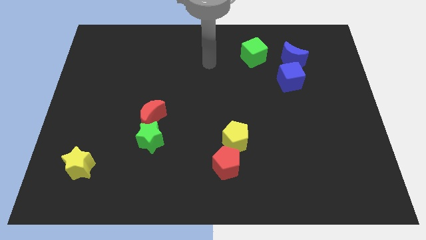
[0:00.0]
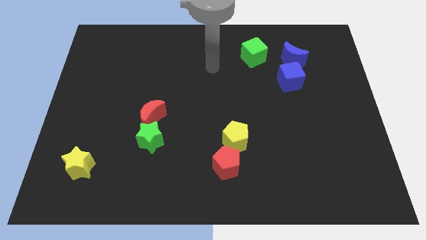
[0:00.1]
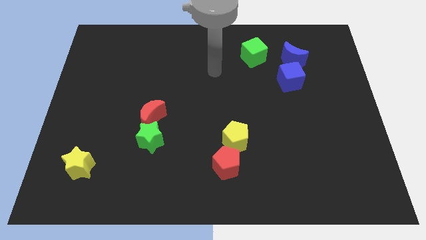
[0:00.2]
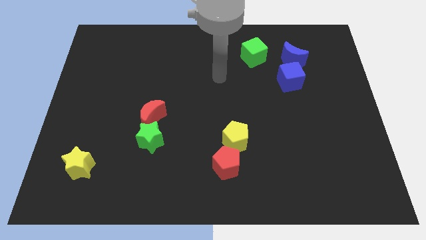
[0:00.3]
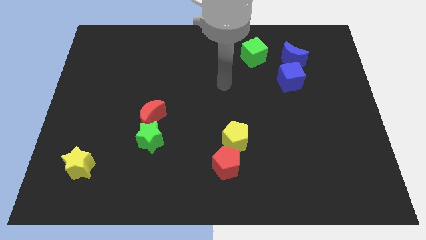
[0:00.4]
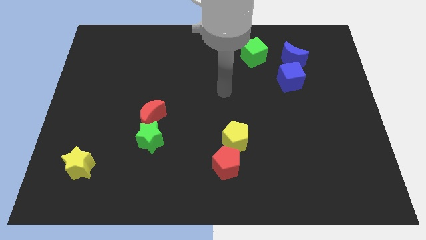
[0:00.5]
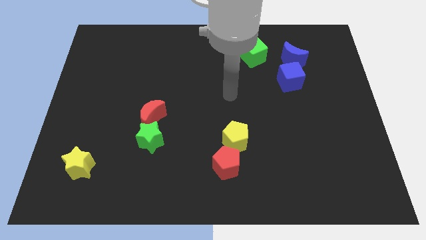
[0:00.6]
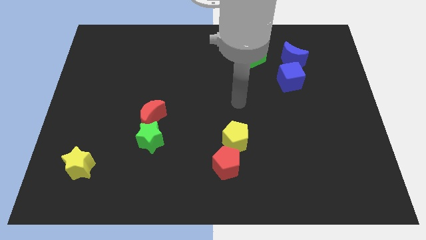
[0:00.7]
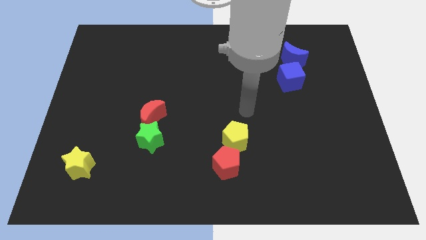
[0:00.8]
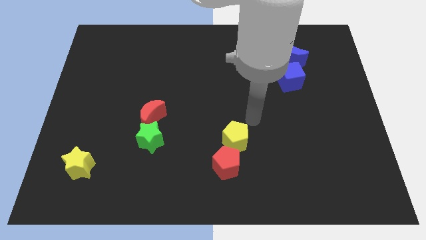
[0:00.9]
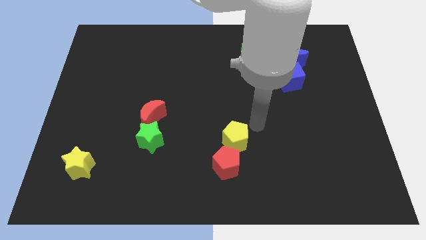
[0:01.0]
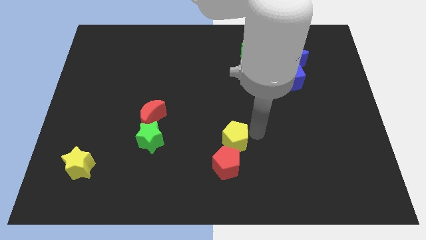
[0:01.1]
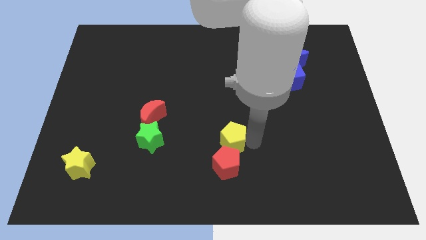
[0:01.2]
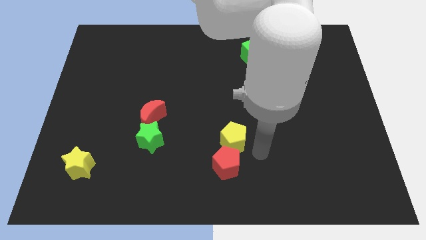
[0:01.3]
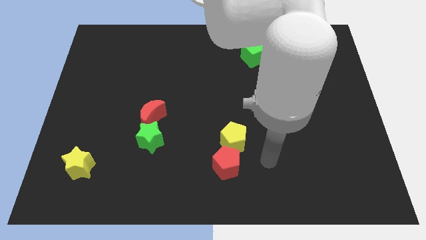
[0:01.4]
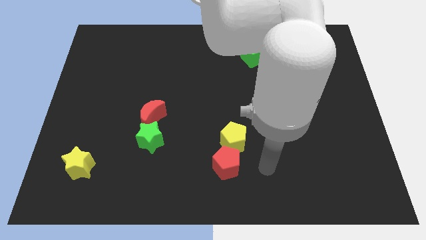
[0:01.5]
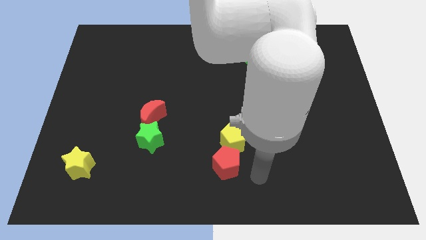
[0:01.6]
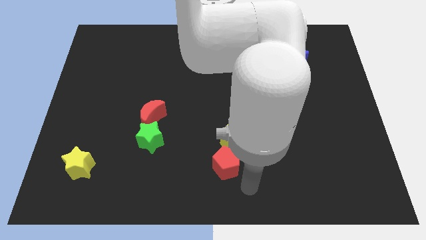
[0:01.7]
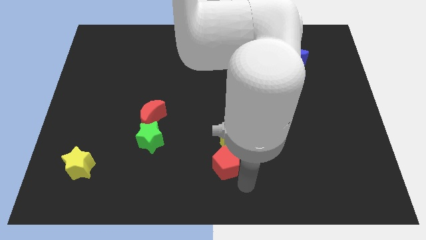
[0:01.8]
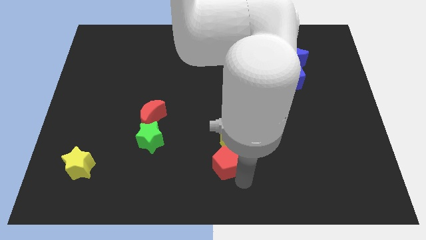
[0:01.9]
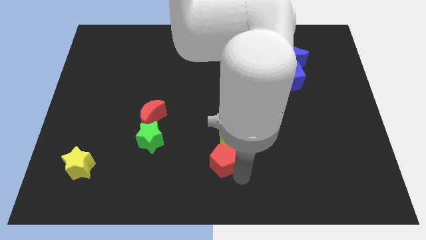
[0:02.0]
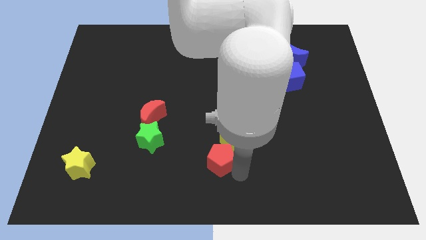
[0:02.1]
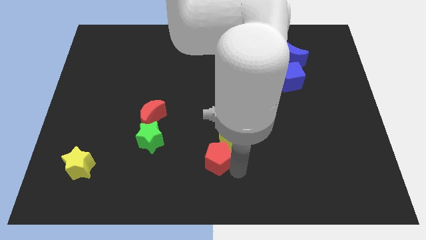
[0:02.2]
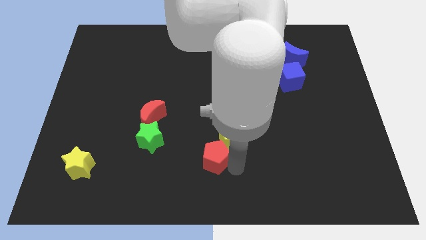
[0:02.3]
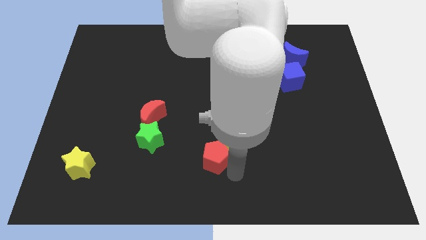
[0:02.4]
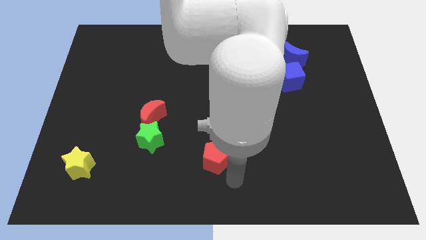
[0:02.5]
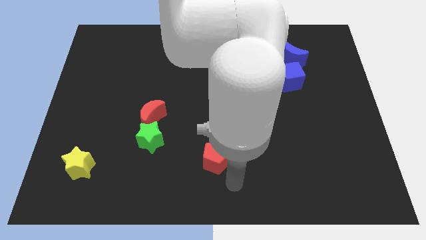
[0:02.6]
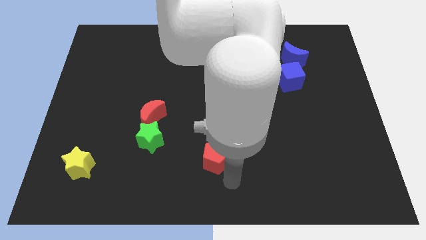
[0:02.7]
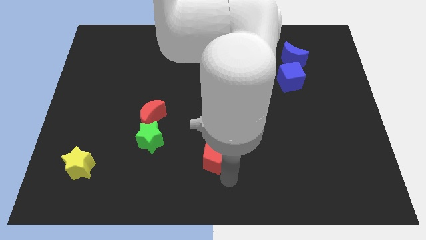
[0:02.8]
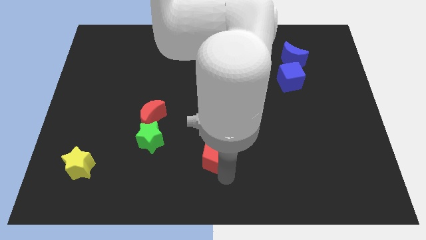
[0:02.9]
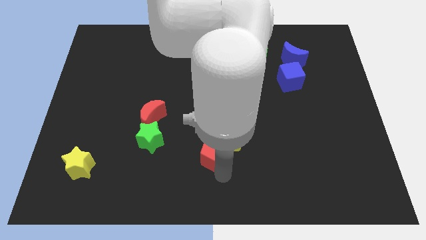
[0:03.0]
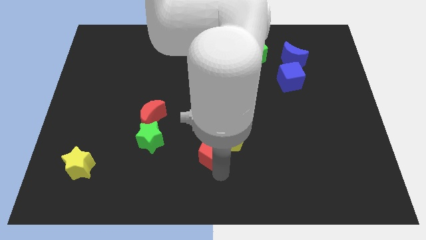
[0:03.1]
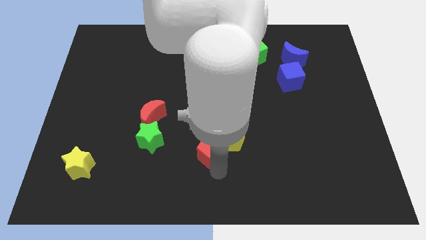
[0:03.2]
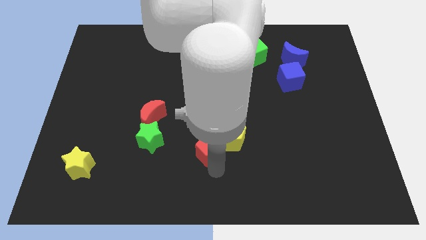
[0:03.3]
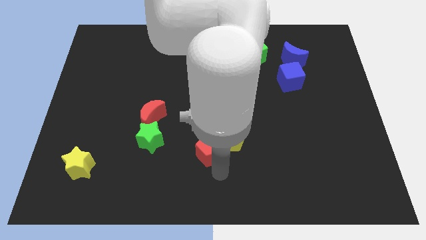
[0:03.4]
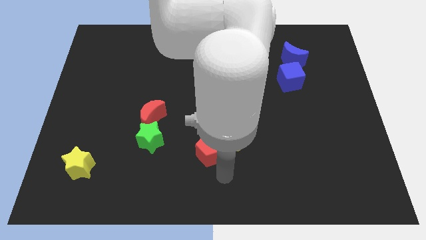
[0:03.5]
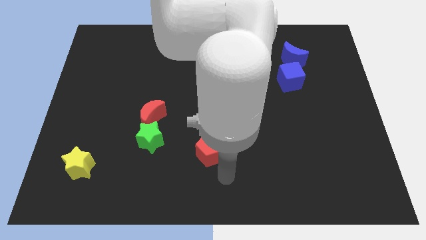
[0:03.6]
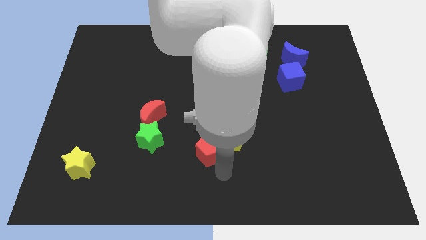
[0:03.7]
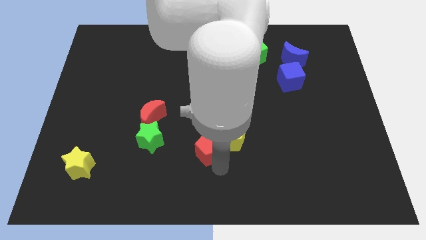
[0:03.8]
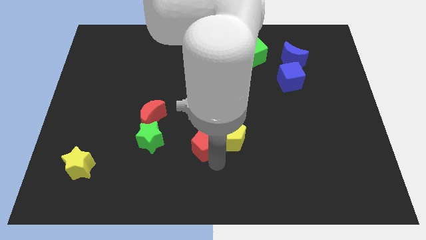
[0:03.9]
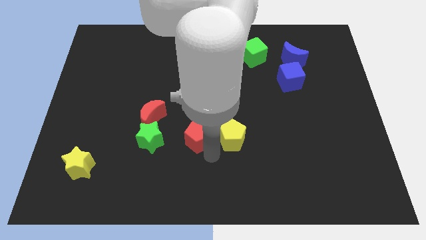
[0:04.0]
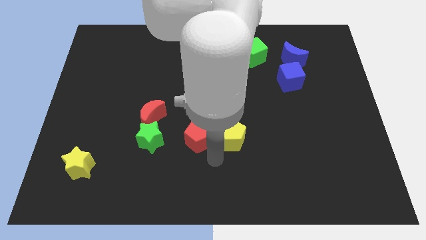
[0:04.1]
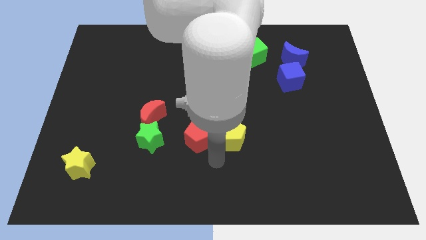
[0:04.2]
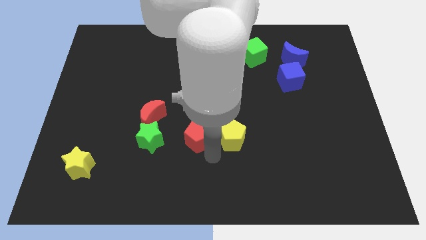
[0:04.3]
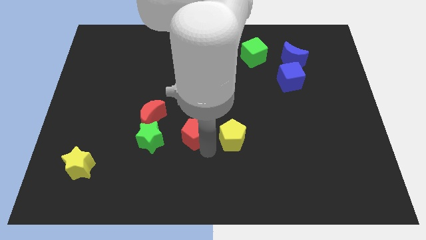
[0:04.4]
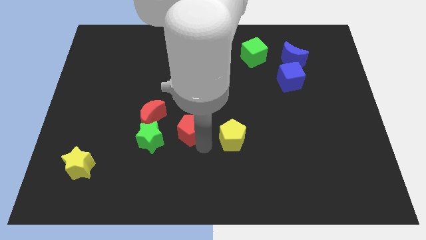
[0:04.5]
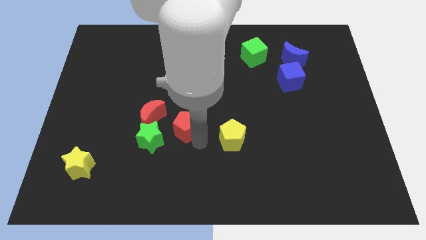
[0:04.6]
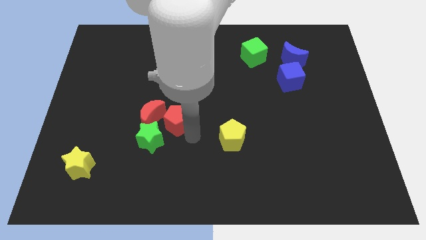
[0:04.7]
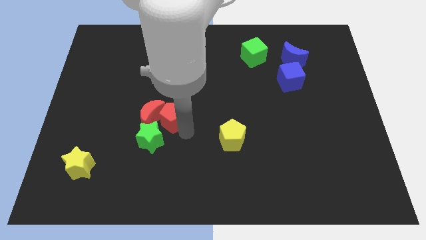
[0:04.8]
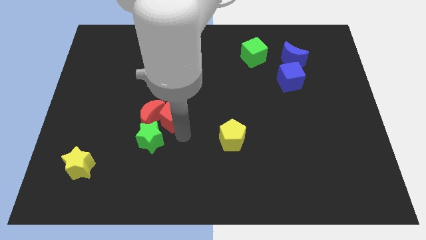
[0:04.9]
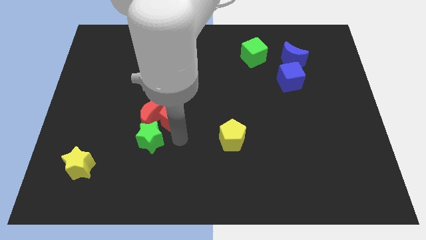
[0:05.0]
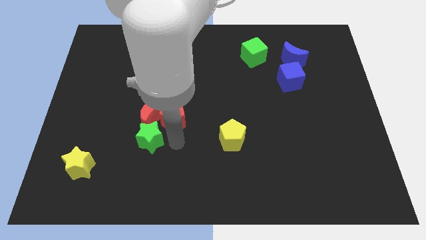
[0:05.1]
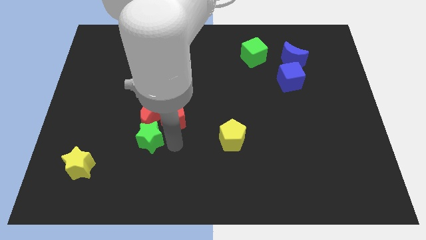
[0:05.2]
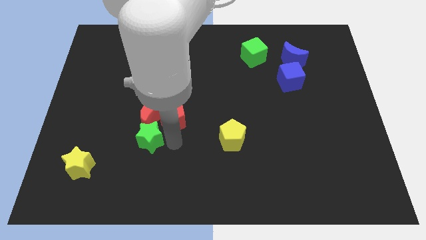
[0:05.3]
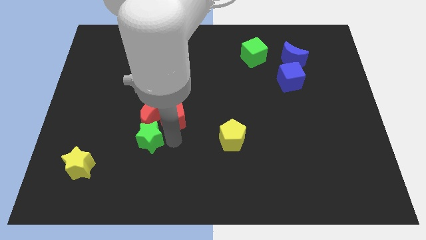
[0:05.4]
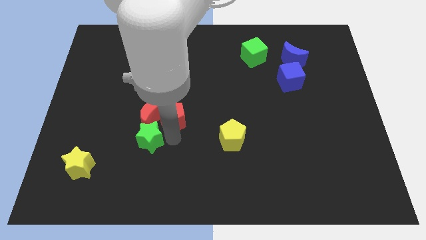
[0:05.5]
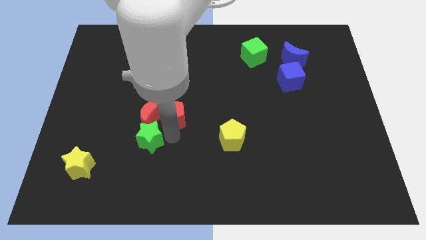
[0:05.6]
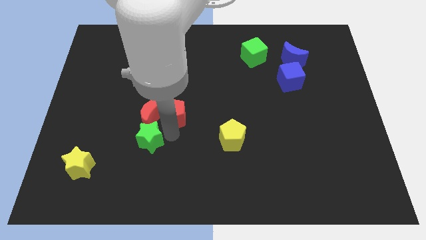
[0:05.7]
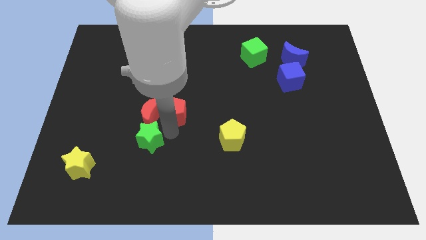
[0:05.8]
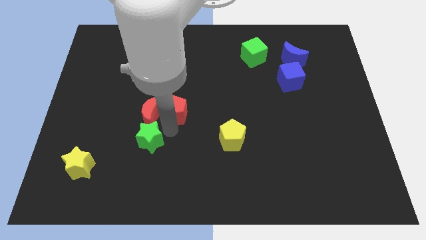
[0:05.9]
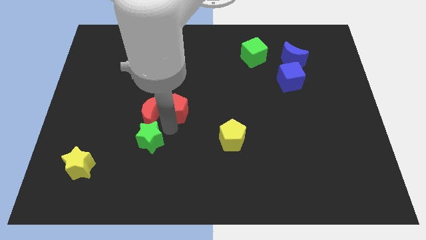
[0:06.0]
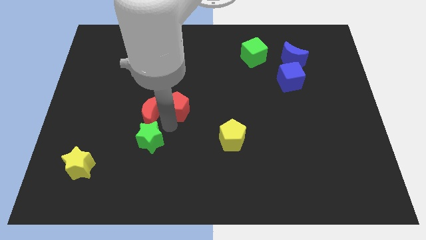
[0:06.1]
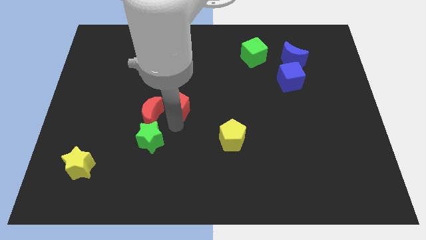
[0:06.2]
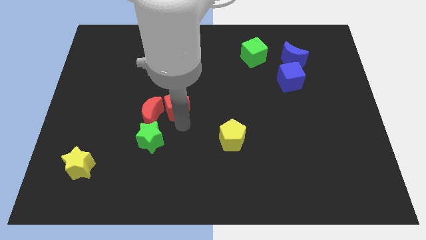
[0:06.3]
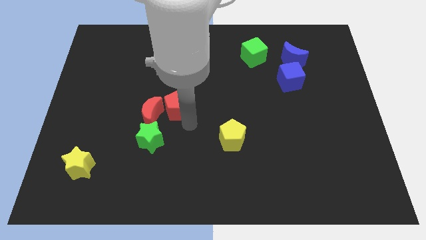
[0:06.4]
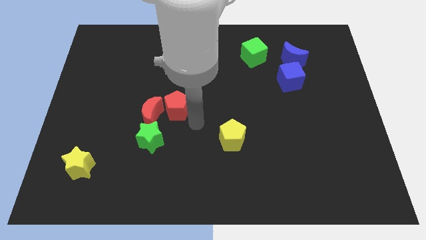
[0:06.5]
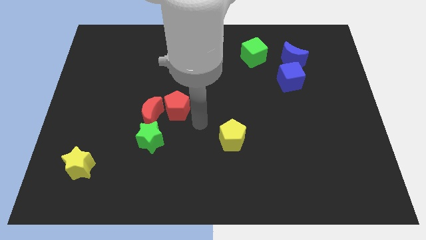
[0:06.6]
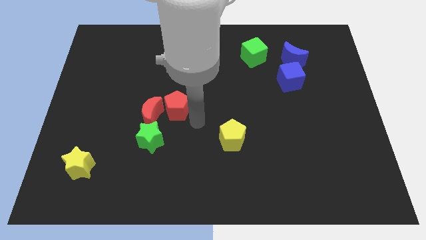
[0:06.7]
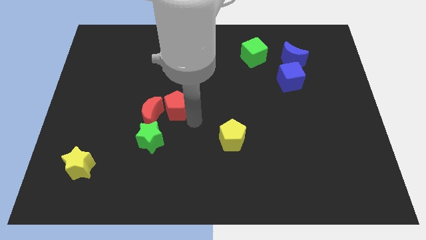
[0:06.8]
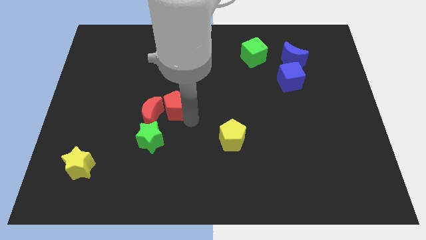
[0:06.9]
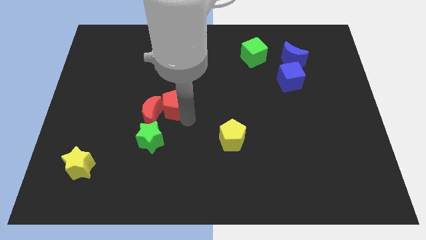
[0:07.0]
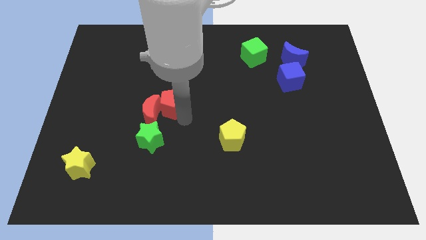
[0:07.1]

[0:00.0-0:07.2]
slide the red pentagon upwards and then to the left

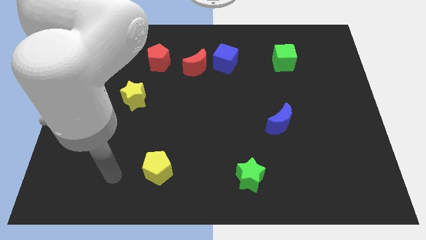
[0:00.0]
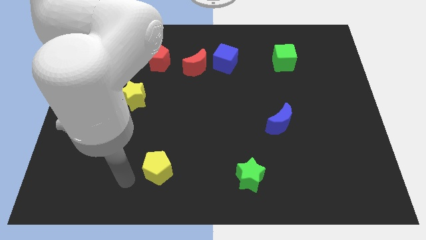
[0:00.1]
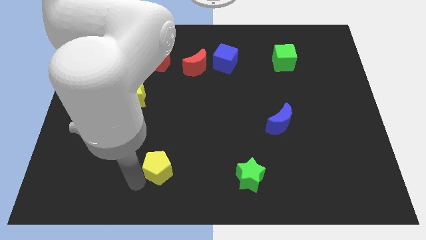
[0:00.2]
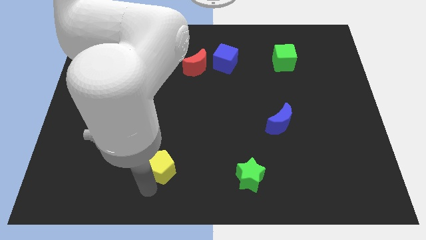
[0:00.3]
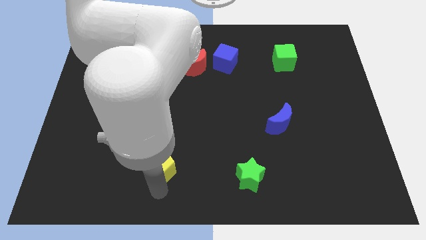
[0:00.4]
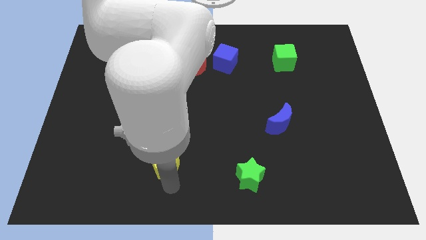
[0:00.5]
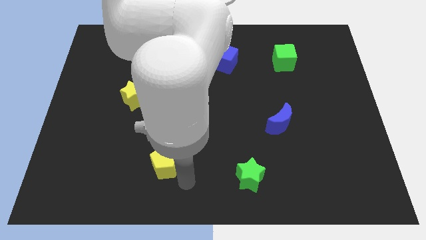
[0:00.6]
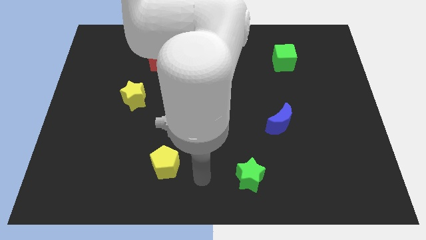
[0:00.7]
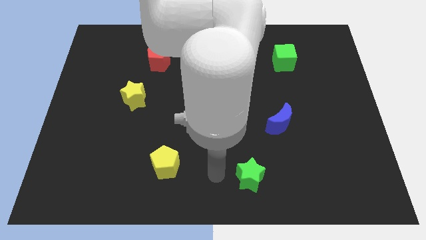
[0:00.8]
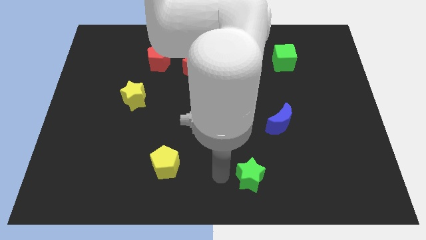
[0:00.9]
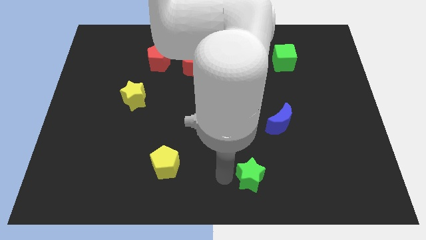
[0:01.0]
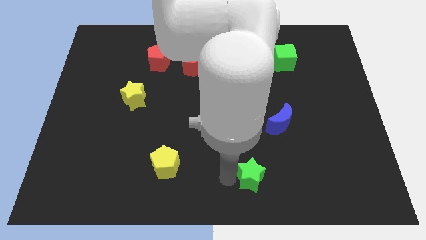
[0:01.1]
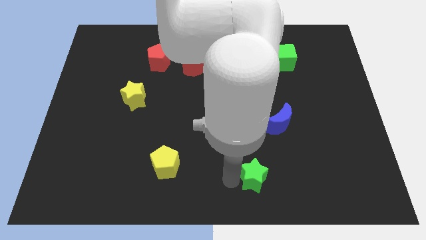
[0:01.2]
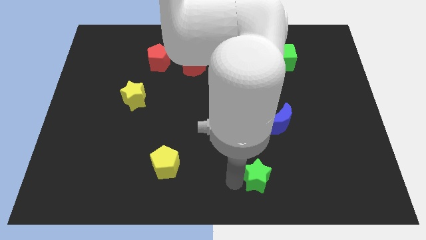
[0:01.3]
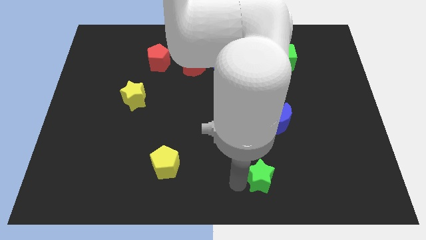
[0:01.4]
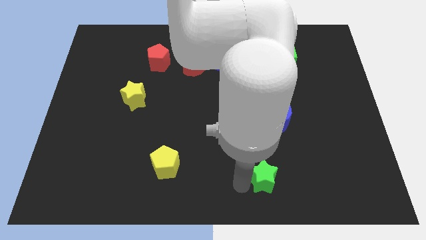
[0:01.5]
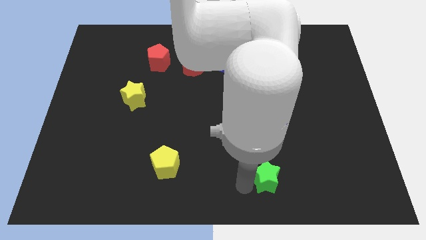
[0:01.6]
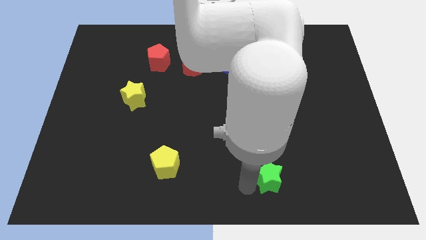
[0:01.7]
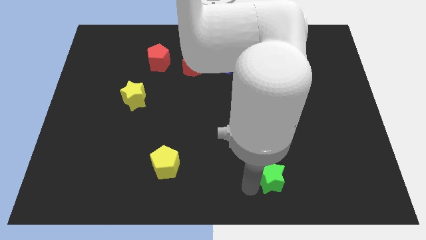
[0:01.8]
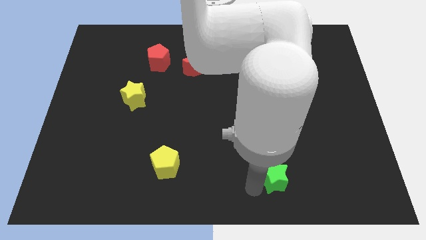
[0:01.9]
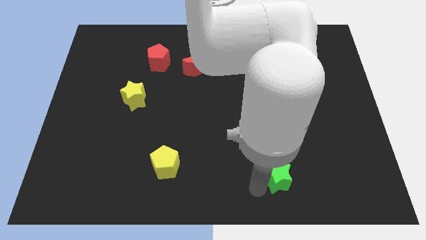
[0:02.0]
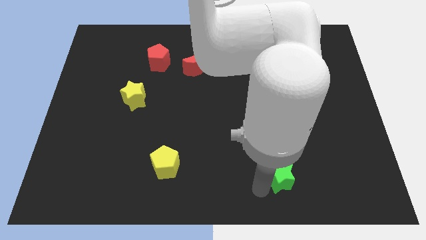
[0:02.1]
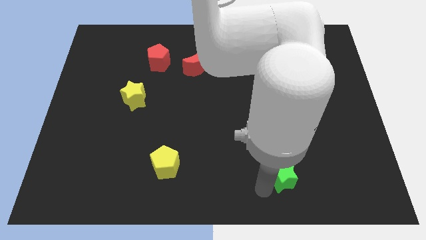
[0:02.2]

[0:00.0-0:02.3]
slide the green star slightly to the right
